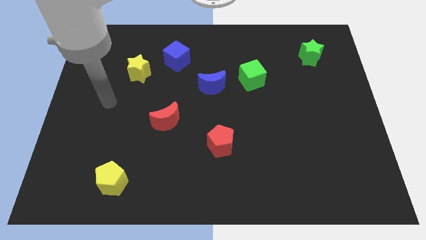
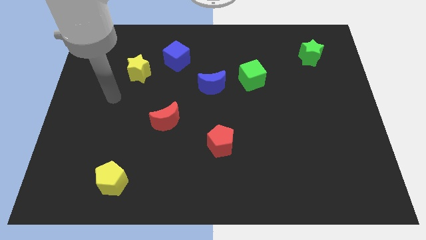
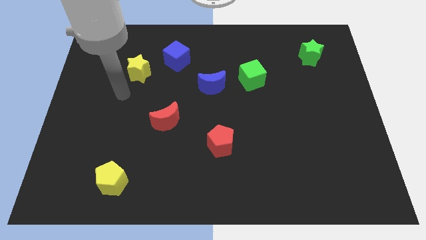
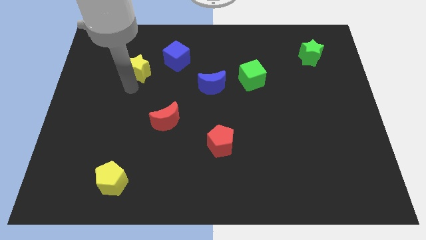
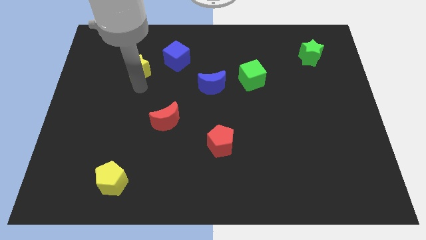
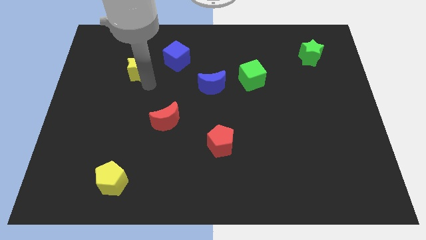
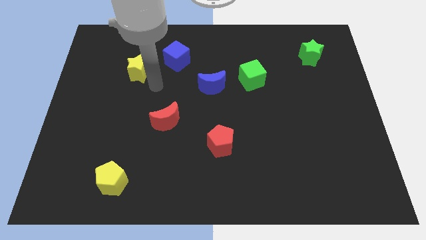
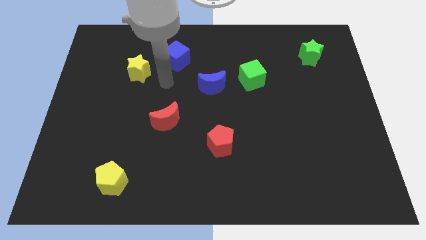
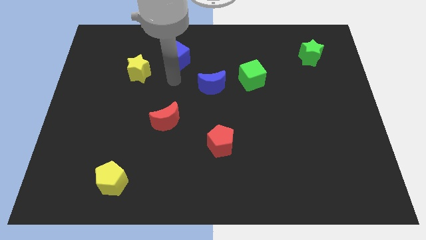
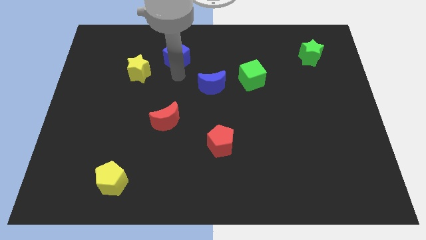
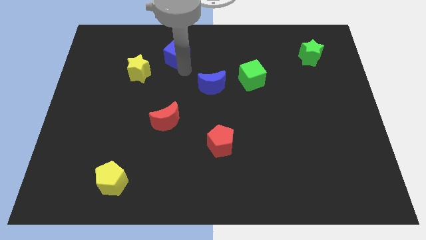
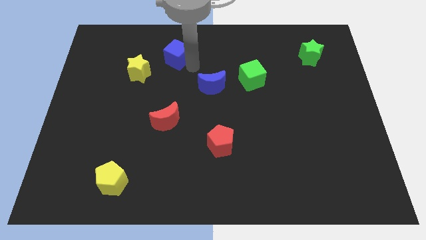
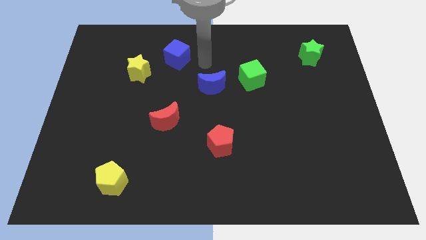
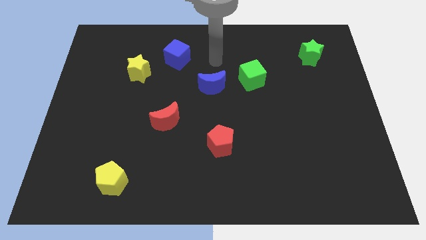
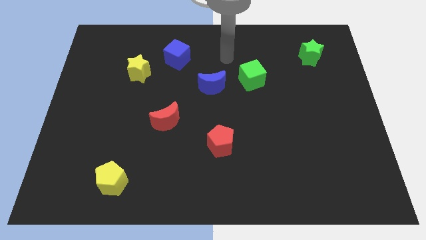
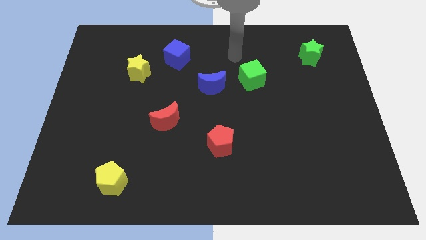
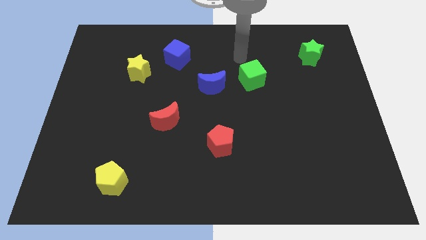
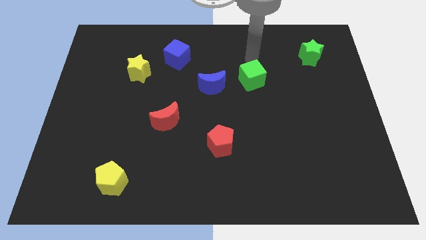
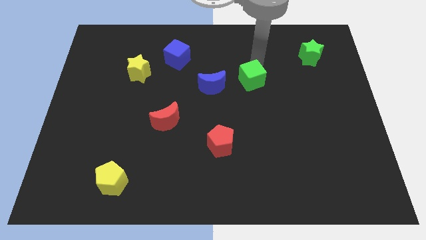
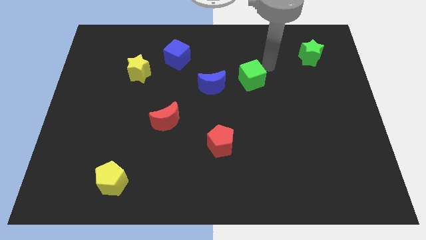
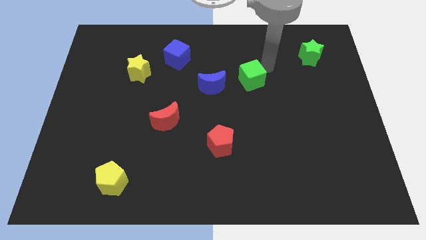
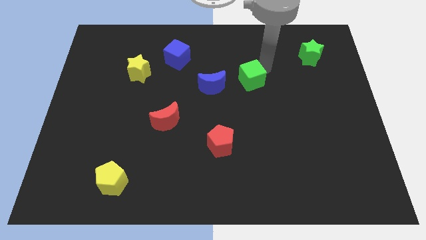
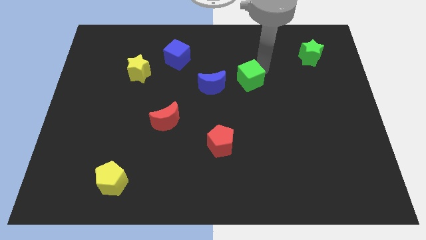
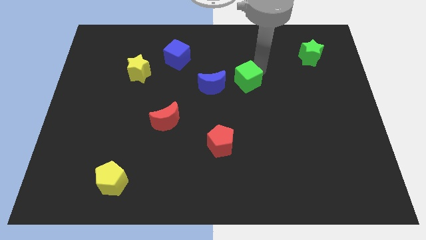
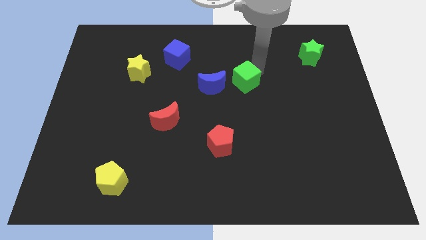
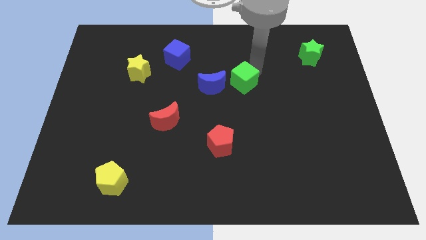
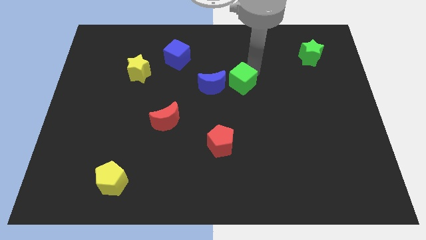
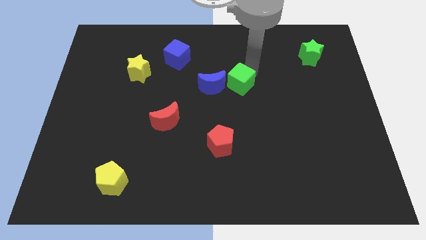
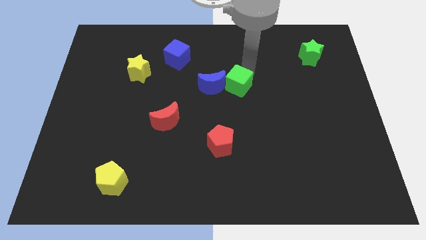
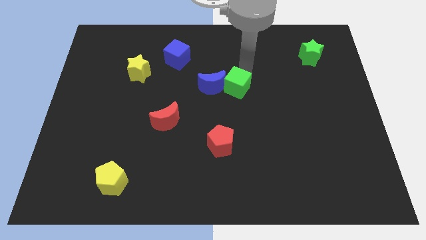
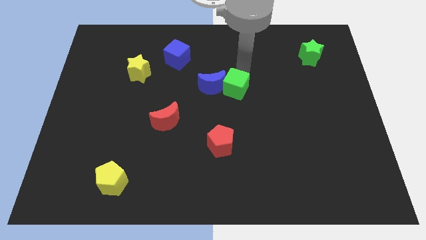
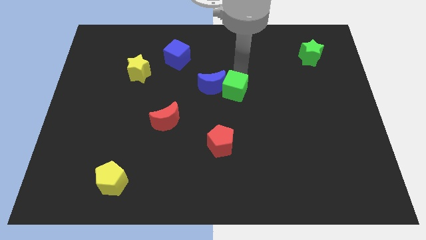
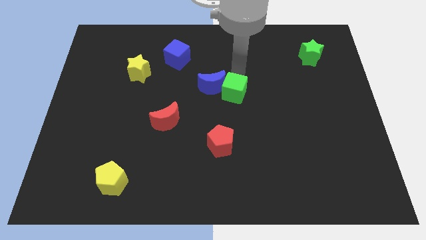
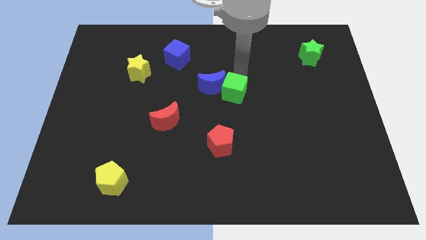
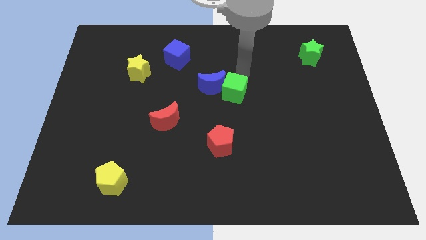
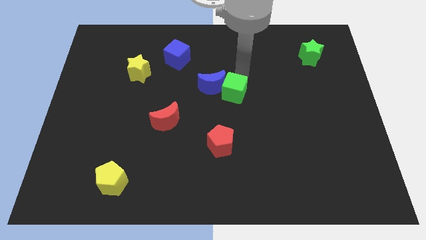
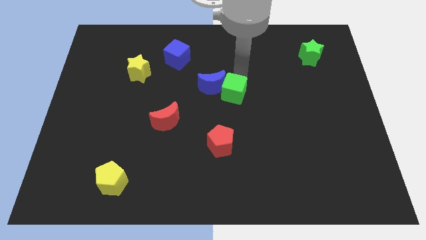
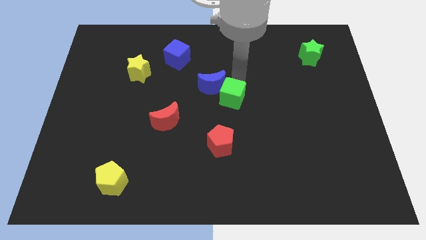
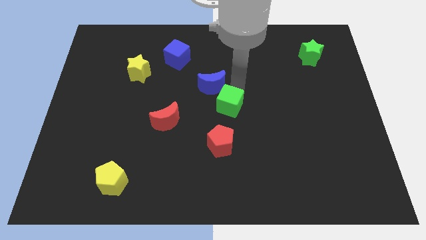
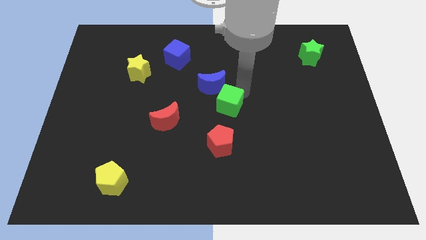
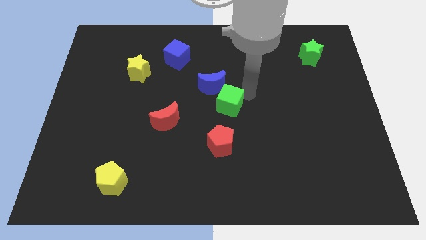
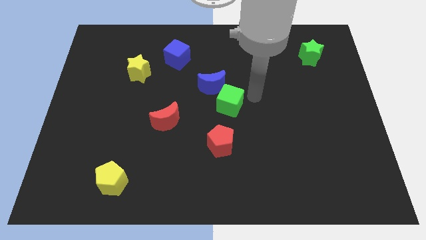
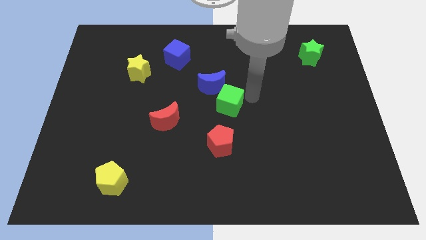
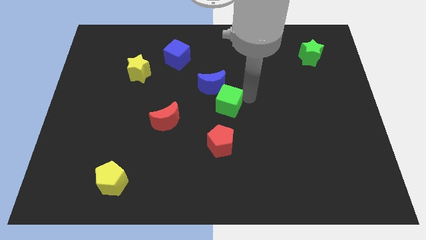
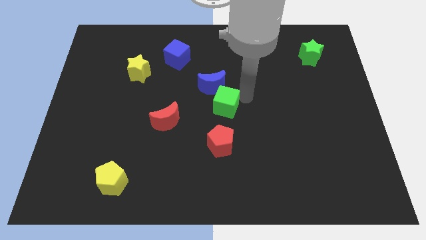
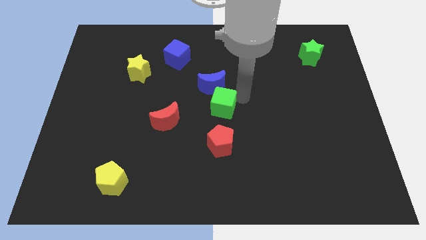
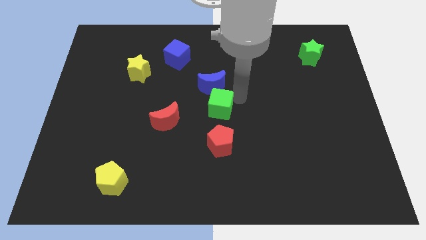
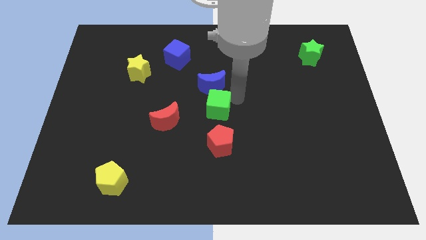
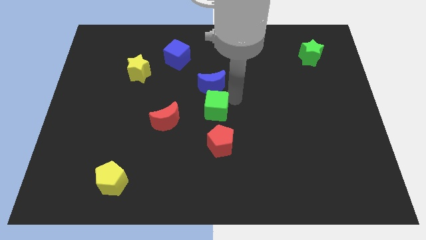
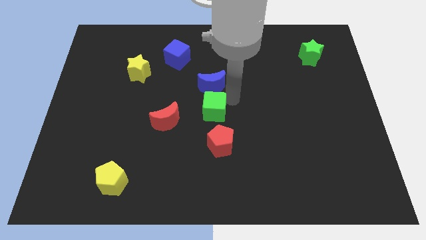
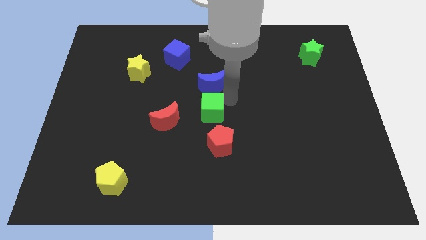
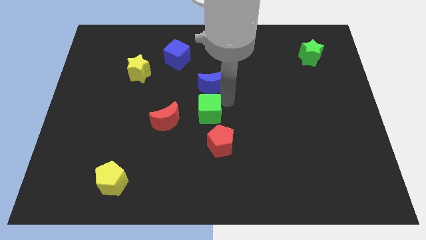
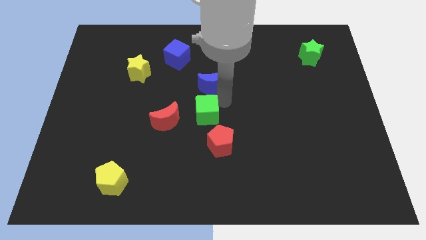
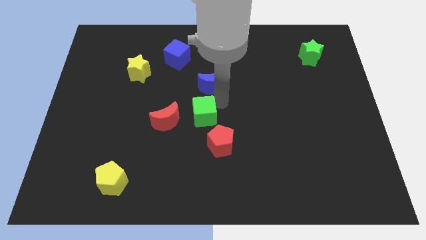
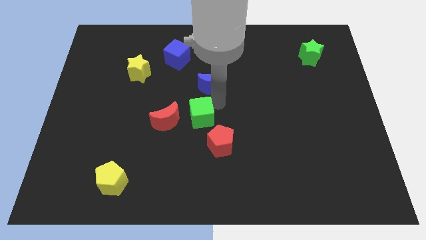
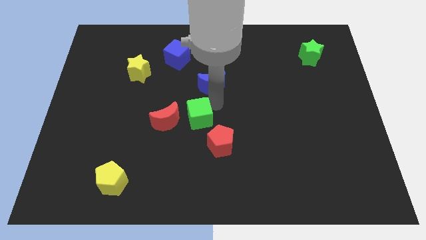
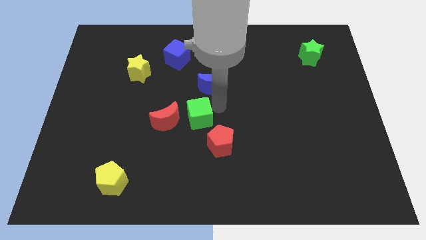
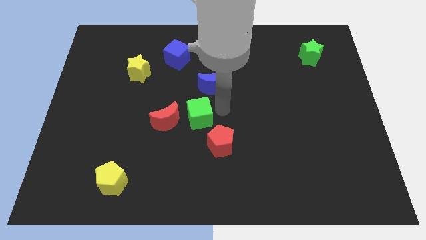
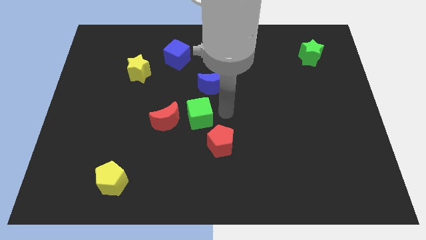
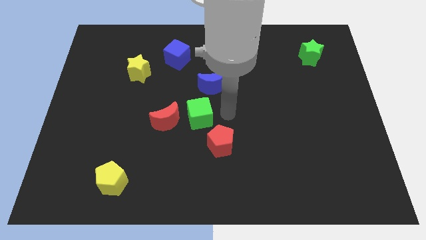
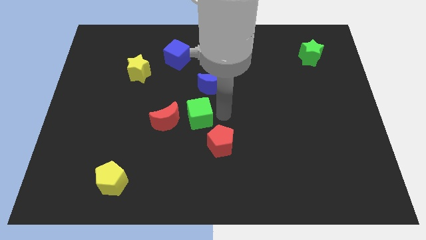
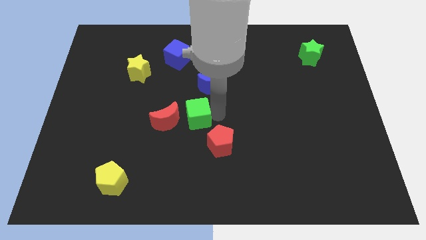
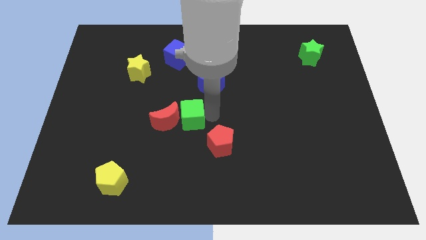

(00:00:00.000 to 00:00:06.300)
move the green cube next to the red moon

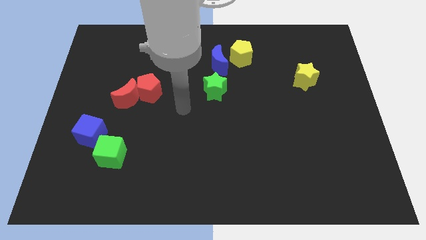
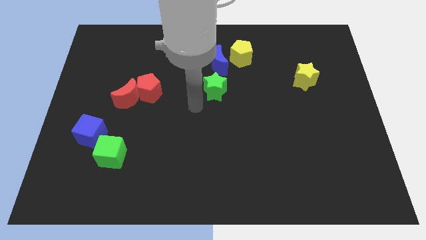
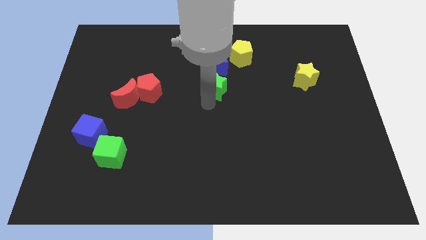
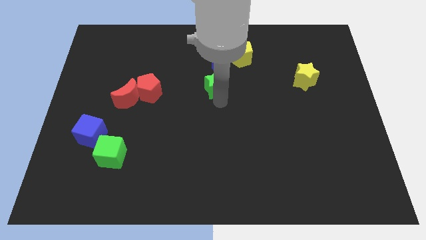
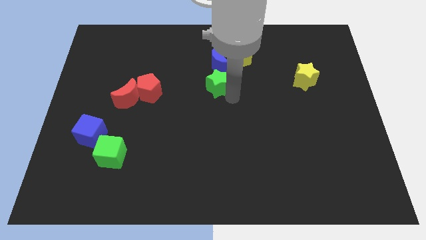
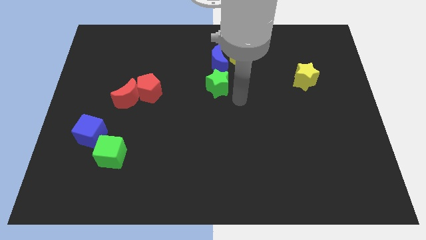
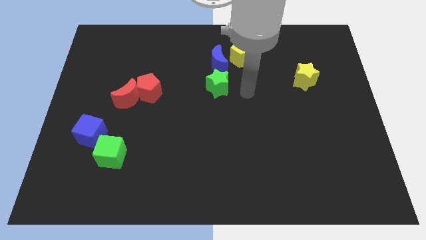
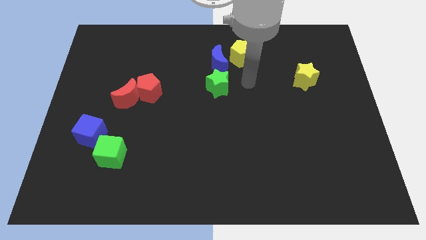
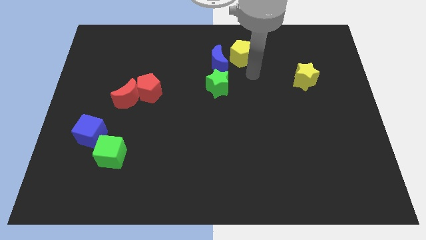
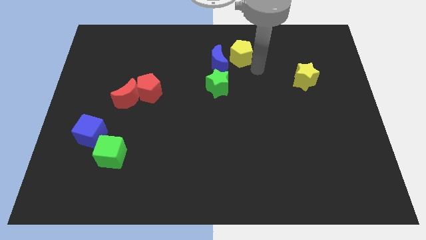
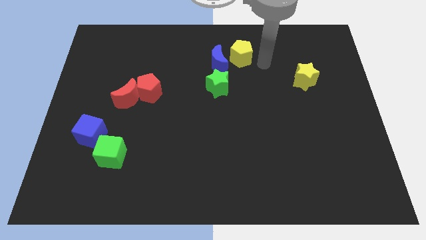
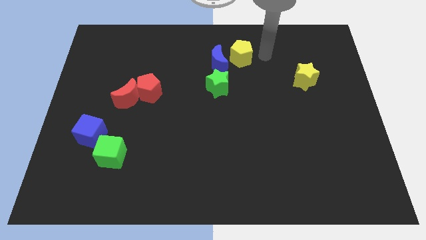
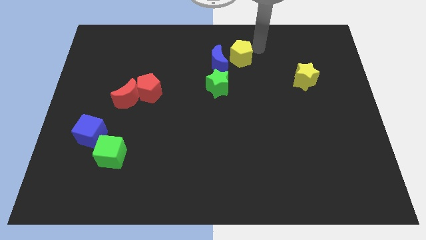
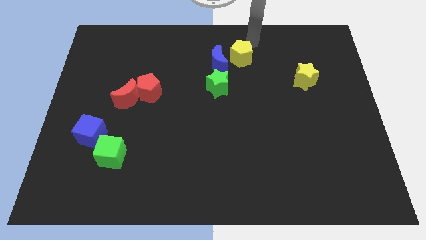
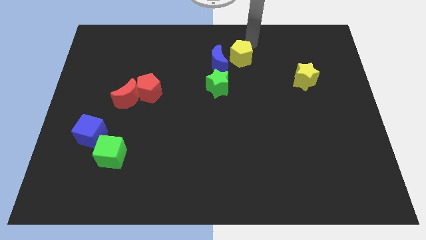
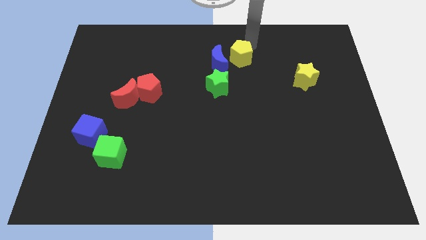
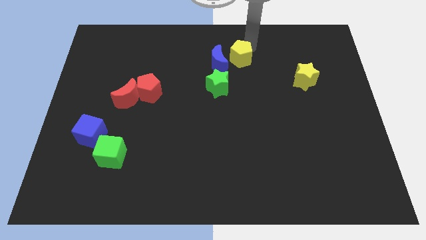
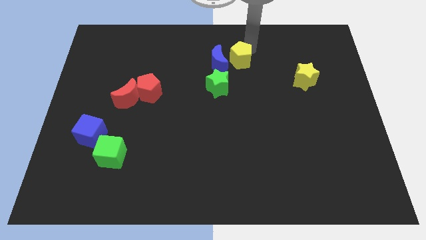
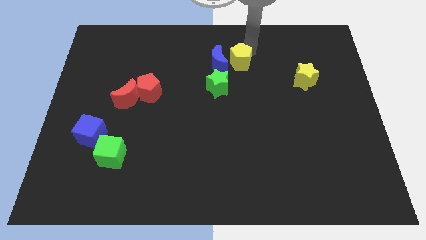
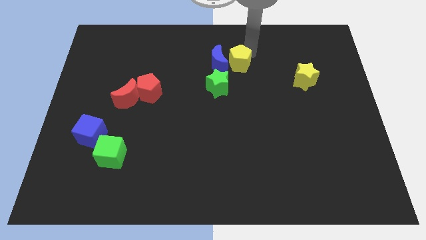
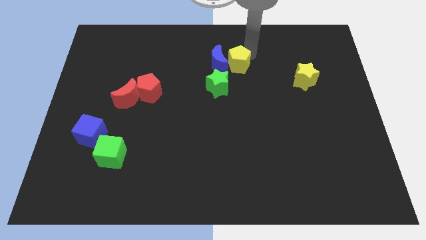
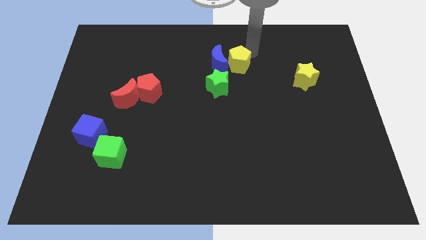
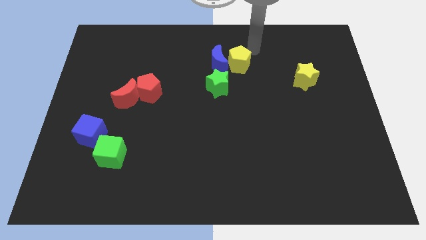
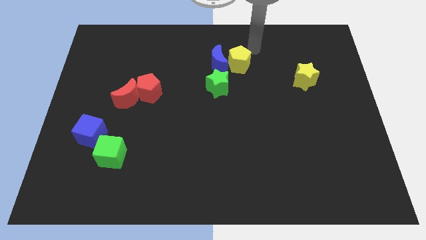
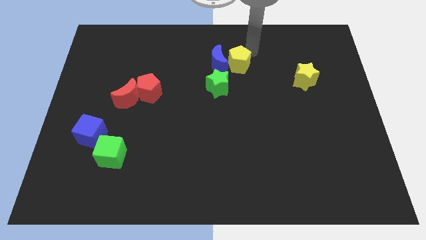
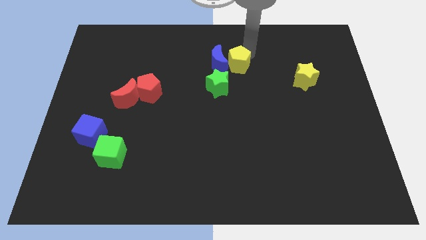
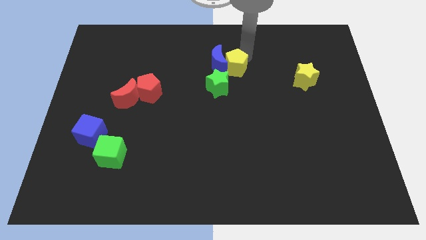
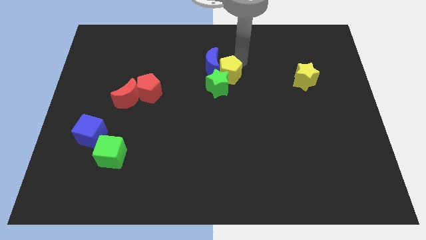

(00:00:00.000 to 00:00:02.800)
slide the yellow pentagon next to the green star
